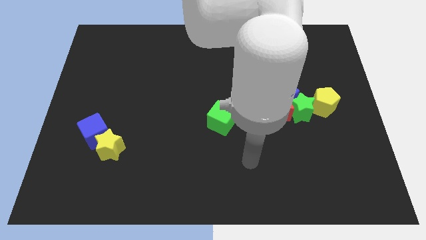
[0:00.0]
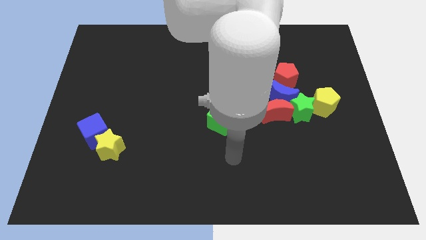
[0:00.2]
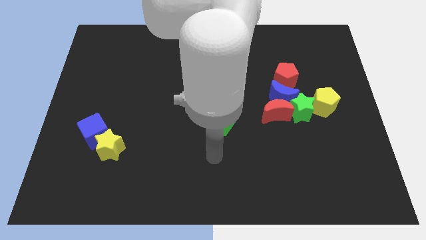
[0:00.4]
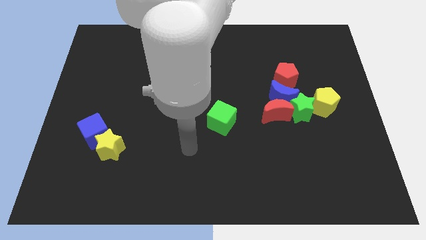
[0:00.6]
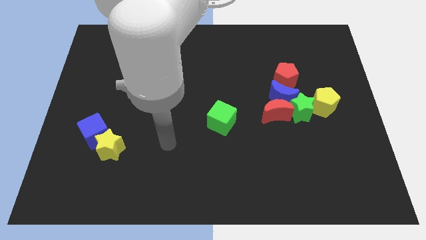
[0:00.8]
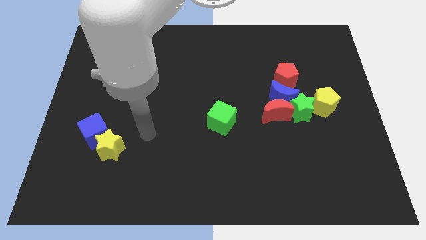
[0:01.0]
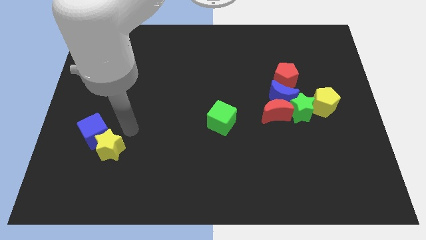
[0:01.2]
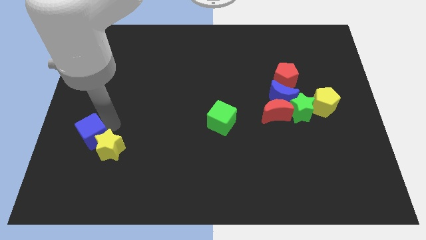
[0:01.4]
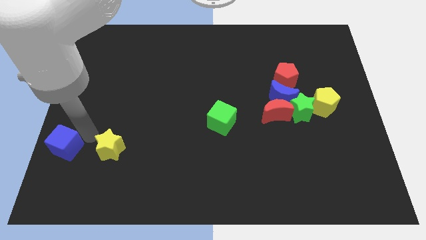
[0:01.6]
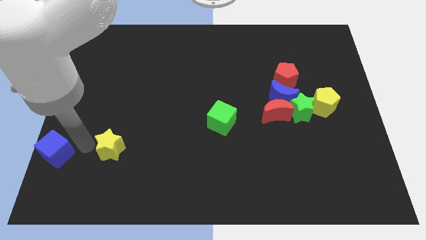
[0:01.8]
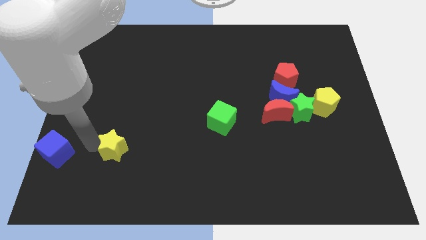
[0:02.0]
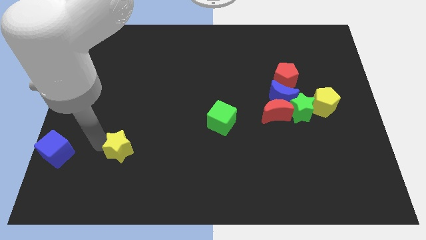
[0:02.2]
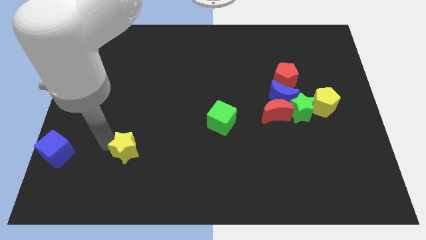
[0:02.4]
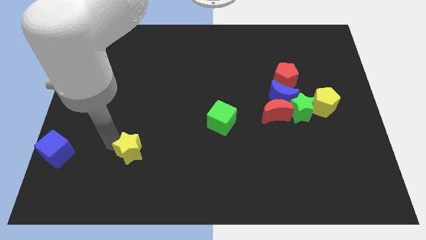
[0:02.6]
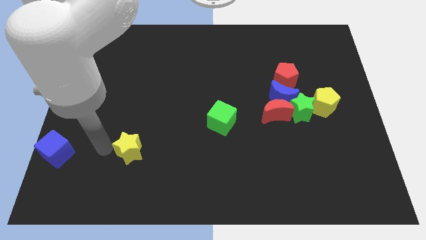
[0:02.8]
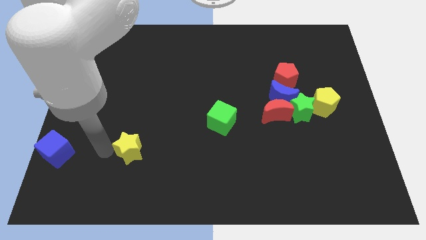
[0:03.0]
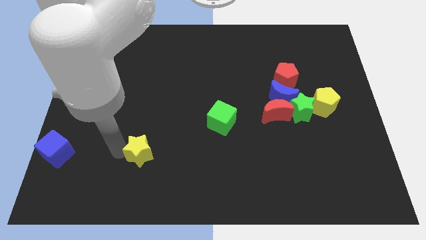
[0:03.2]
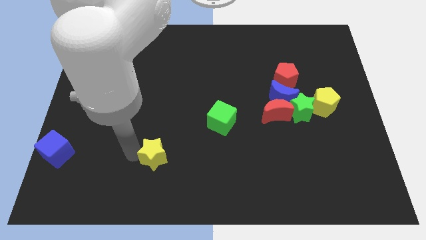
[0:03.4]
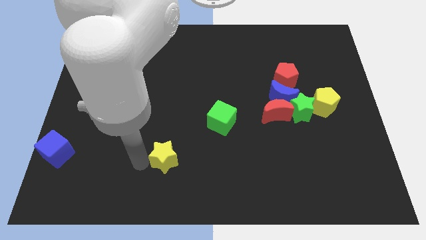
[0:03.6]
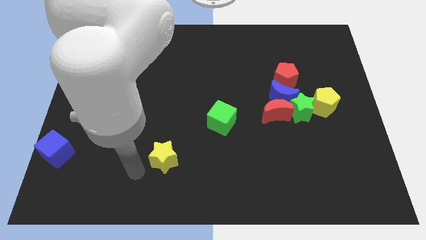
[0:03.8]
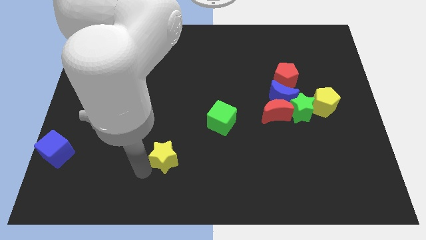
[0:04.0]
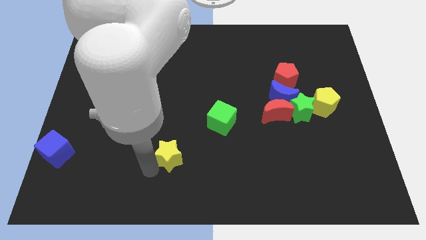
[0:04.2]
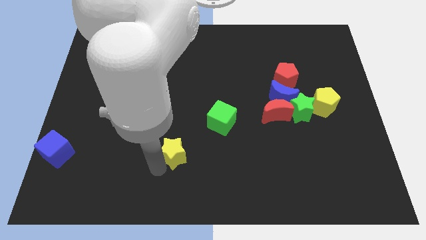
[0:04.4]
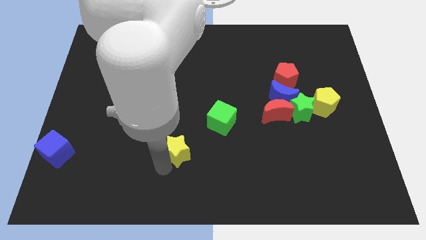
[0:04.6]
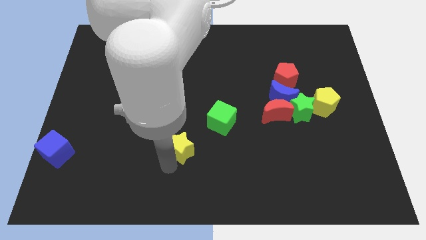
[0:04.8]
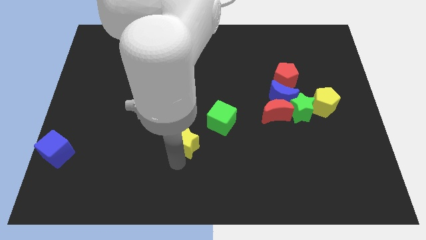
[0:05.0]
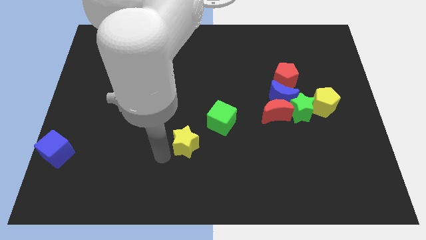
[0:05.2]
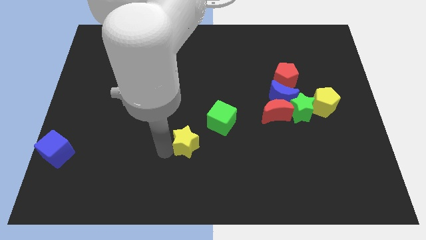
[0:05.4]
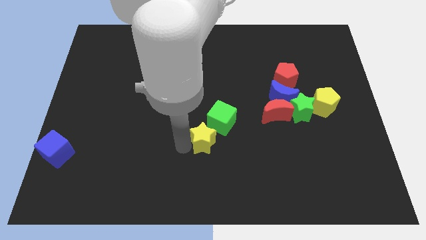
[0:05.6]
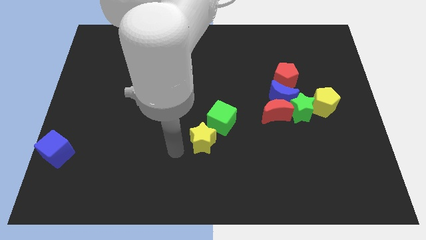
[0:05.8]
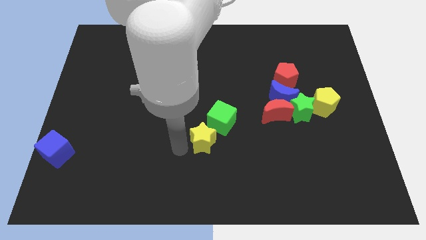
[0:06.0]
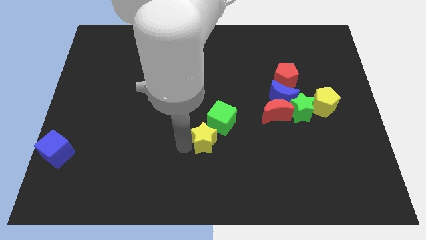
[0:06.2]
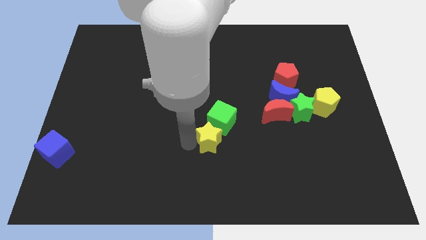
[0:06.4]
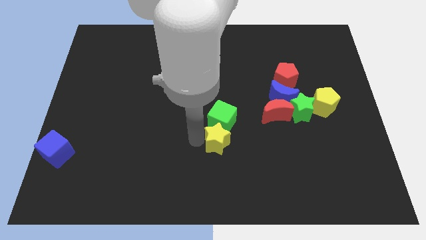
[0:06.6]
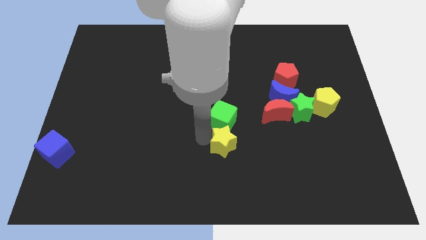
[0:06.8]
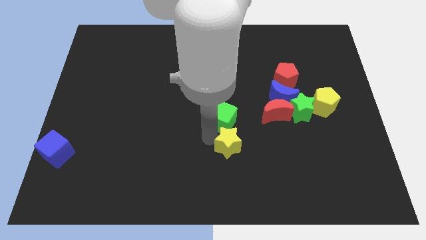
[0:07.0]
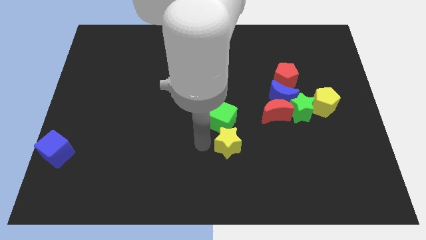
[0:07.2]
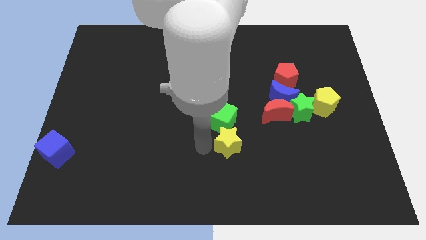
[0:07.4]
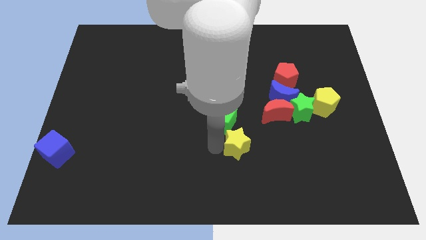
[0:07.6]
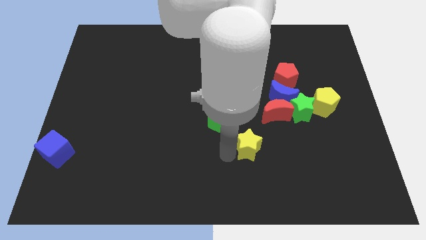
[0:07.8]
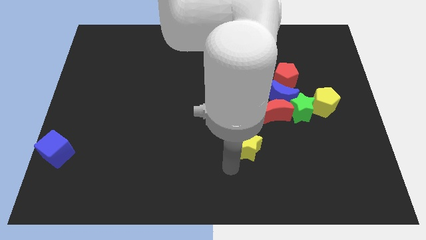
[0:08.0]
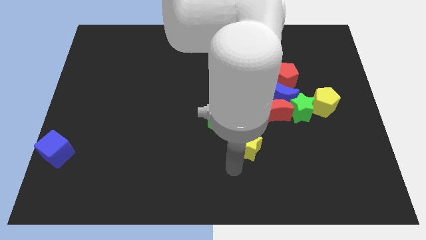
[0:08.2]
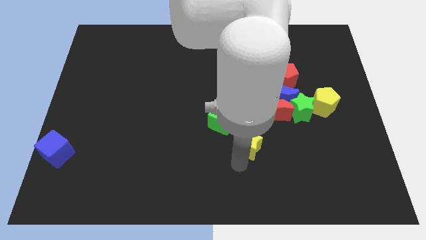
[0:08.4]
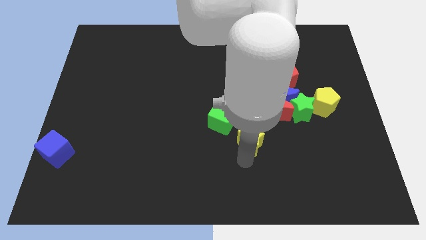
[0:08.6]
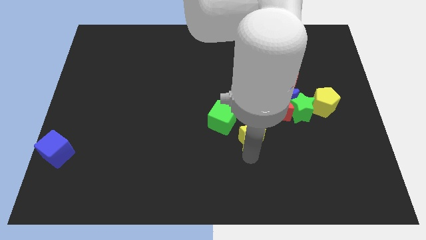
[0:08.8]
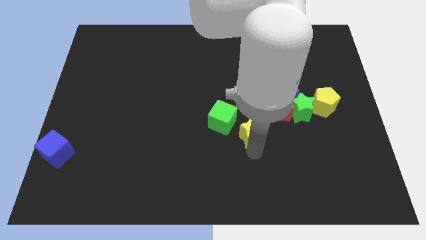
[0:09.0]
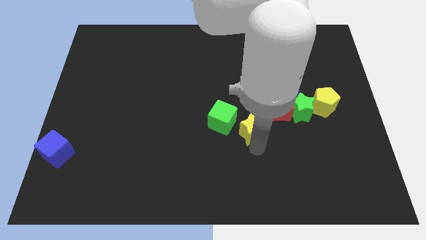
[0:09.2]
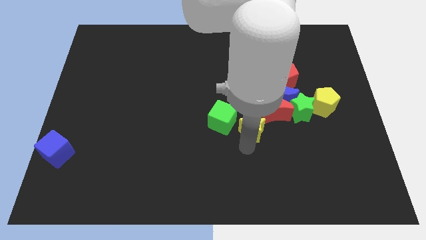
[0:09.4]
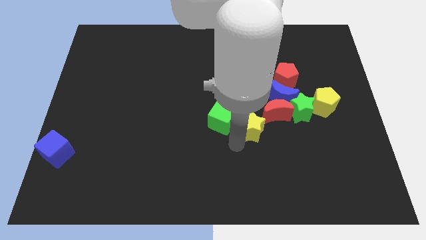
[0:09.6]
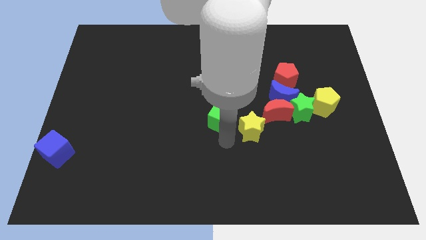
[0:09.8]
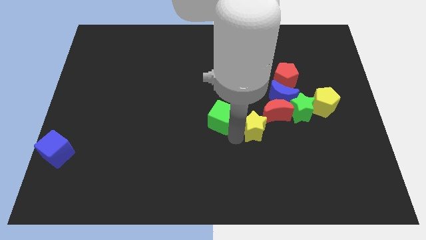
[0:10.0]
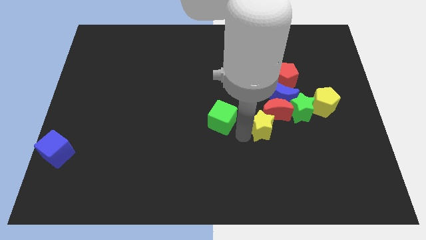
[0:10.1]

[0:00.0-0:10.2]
push the yellow star to the red moon

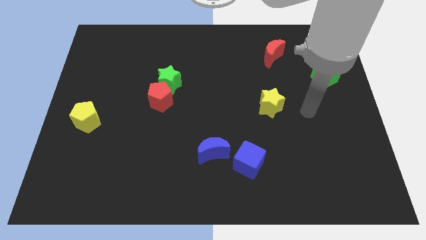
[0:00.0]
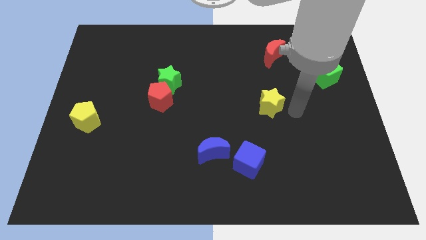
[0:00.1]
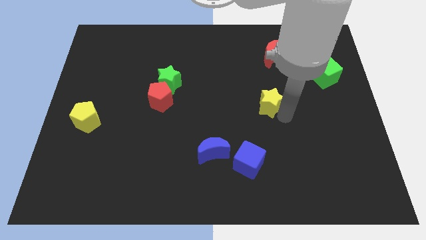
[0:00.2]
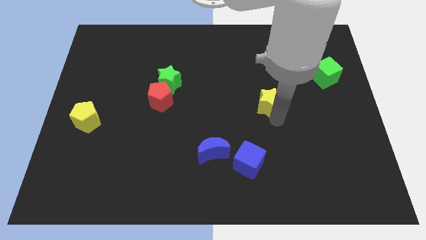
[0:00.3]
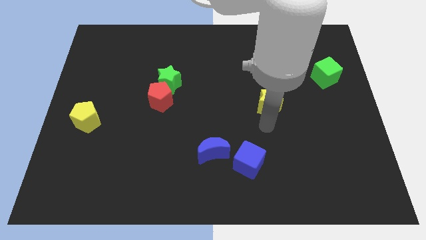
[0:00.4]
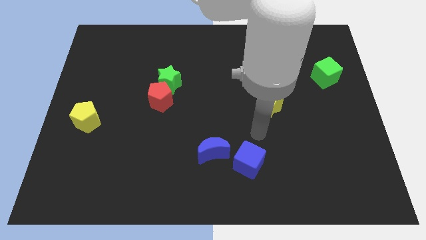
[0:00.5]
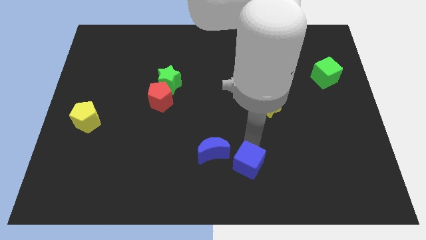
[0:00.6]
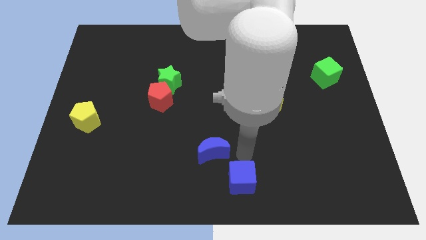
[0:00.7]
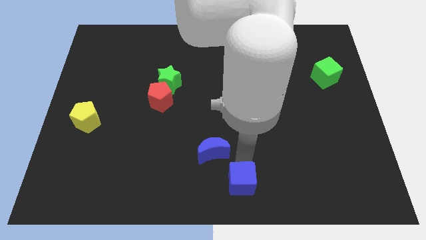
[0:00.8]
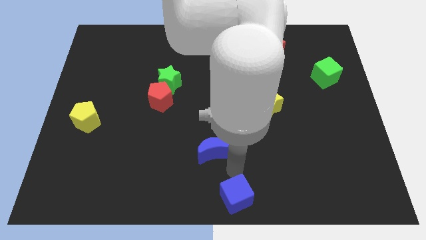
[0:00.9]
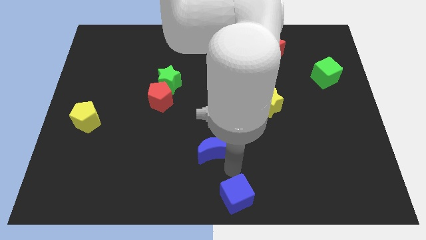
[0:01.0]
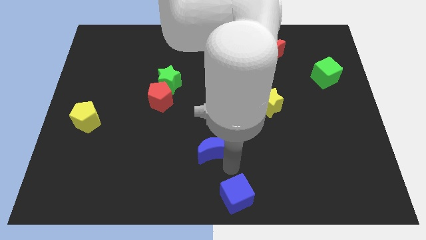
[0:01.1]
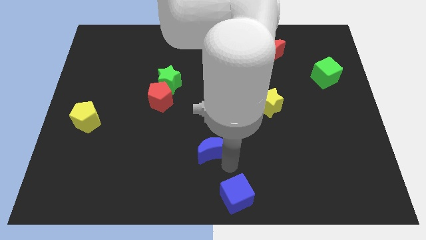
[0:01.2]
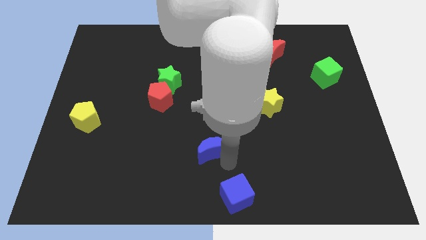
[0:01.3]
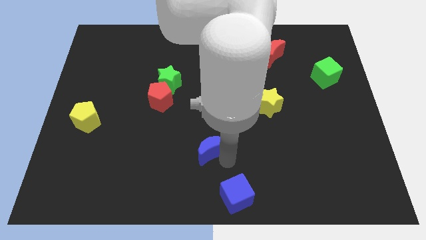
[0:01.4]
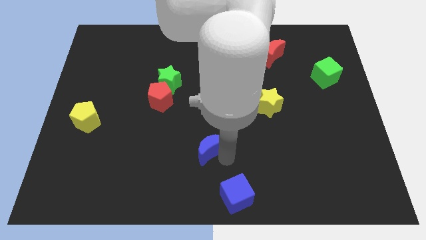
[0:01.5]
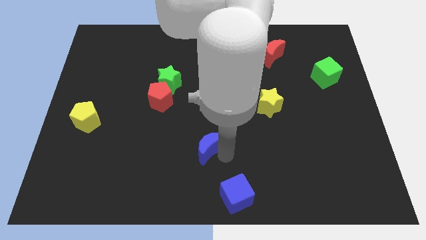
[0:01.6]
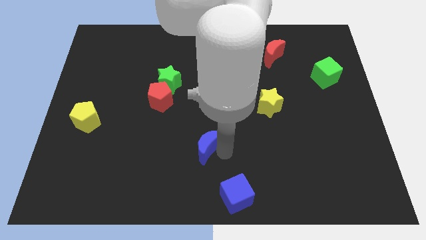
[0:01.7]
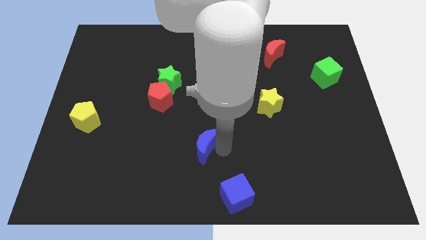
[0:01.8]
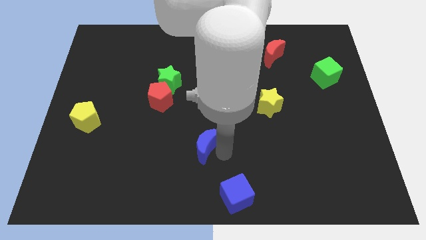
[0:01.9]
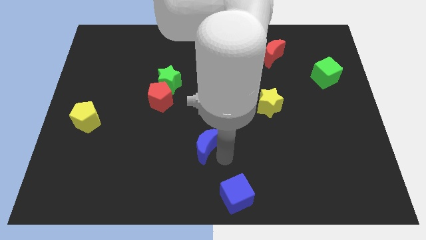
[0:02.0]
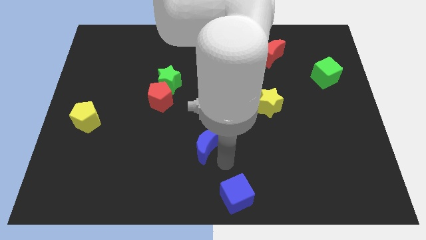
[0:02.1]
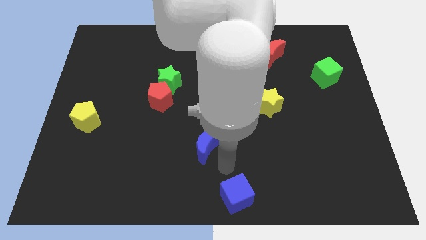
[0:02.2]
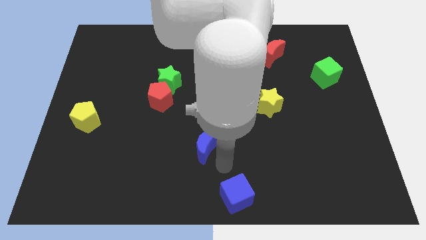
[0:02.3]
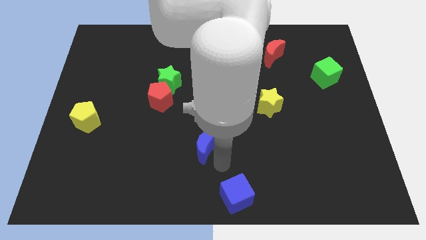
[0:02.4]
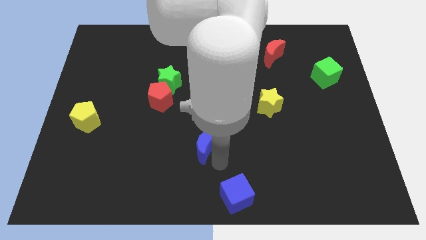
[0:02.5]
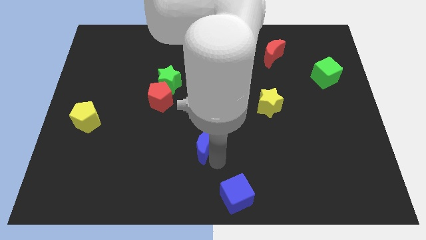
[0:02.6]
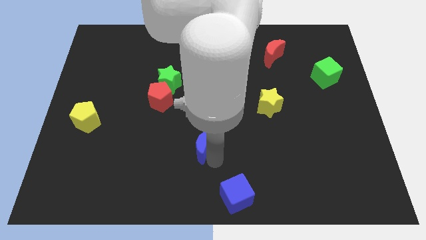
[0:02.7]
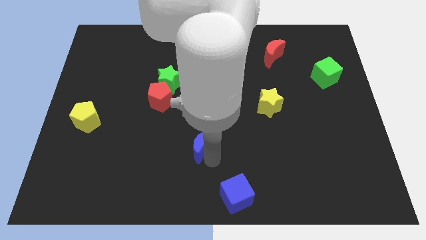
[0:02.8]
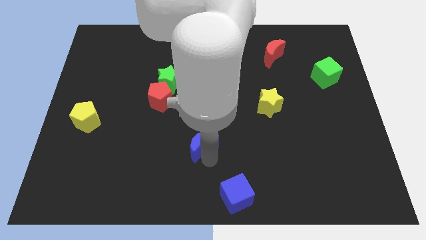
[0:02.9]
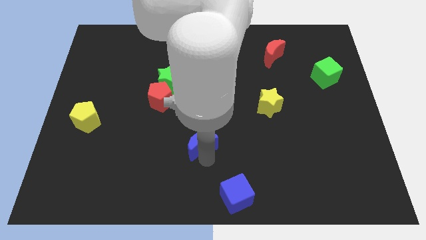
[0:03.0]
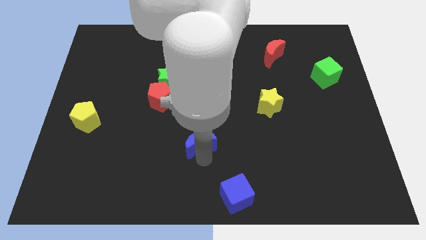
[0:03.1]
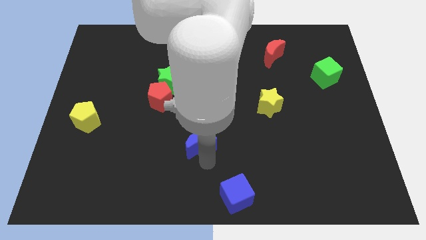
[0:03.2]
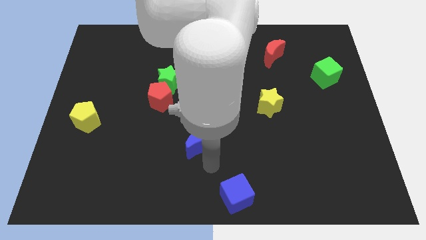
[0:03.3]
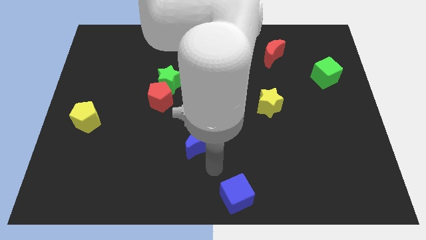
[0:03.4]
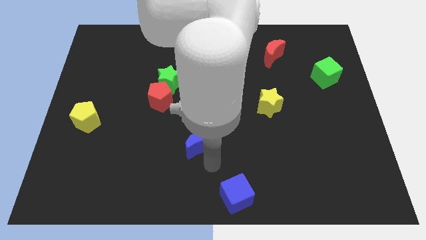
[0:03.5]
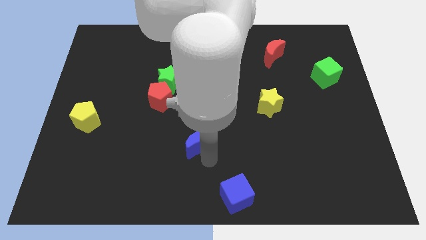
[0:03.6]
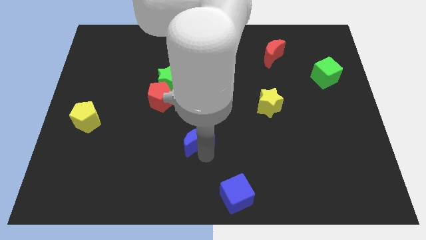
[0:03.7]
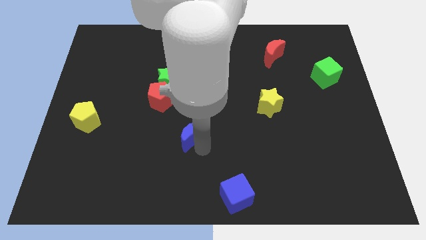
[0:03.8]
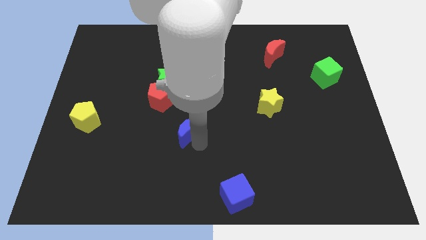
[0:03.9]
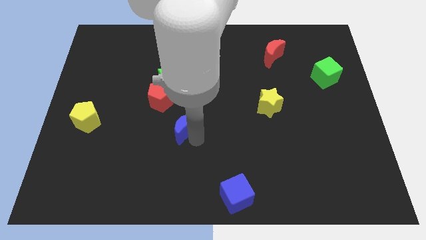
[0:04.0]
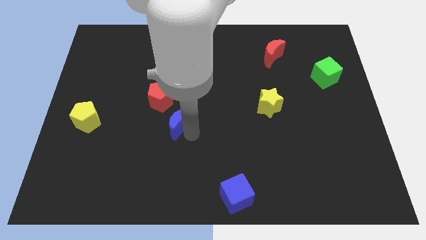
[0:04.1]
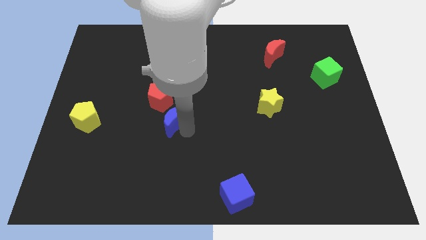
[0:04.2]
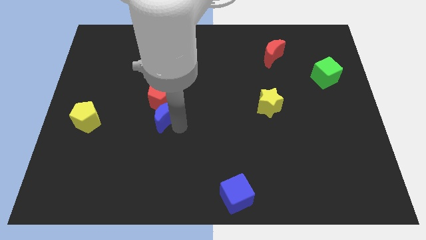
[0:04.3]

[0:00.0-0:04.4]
move the blue moon to the red pentagon
